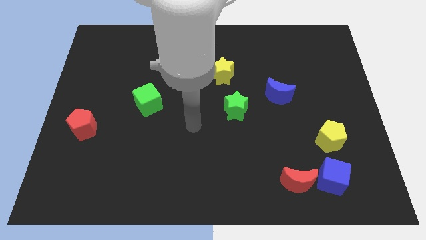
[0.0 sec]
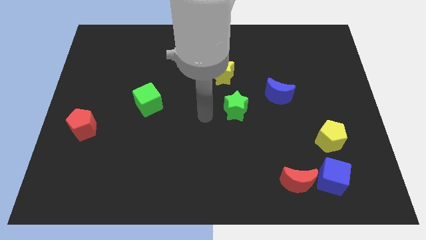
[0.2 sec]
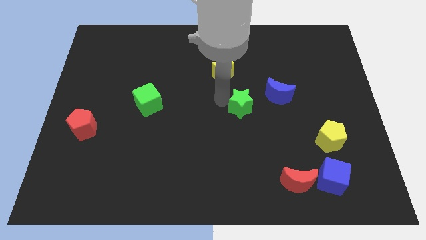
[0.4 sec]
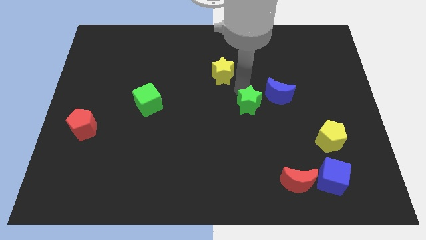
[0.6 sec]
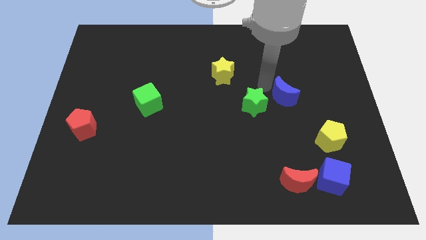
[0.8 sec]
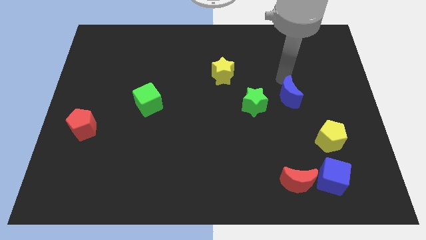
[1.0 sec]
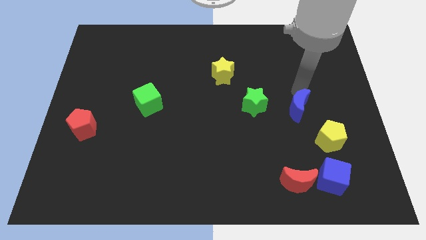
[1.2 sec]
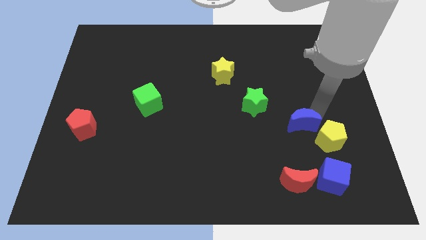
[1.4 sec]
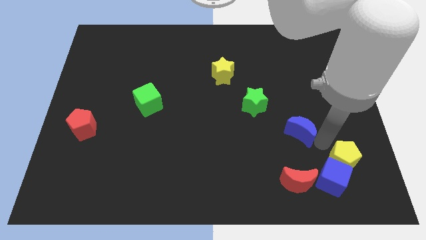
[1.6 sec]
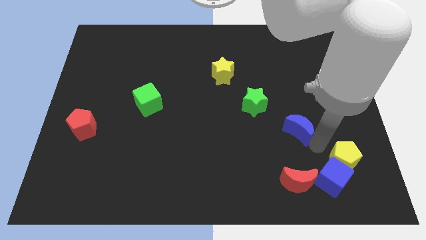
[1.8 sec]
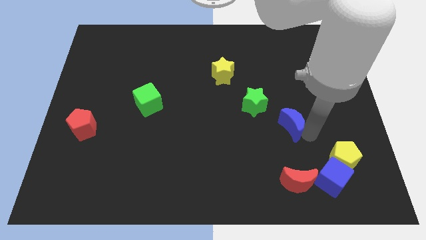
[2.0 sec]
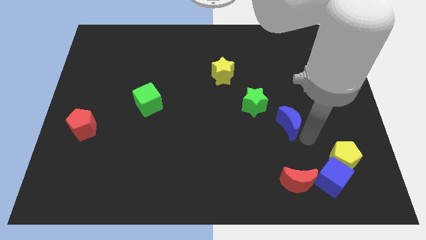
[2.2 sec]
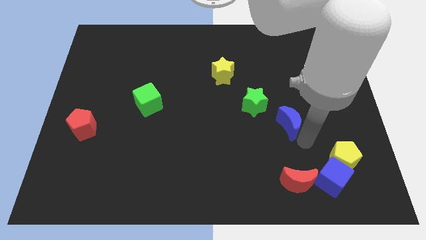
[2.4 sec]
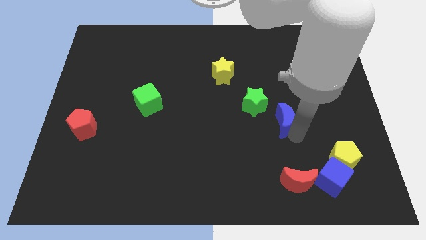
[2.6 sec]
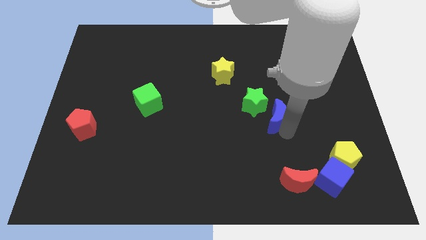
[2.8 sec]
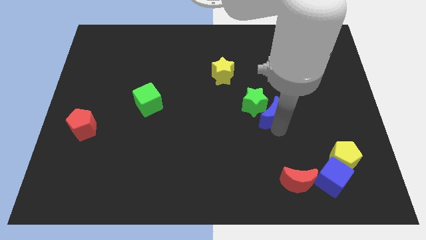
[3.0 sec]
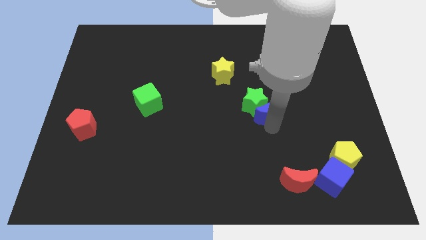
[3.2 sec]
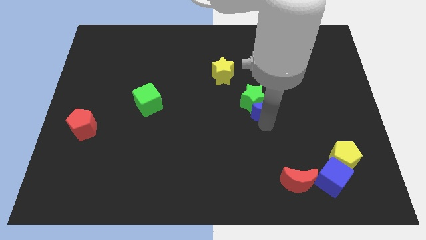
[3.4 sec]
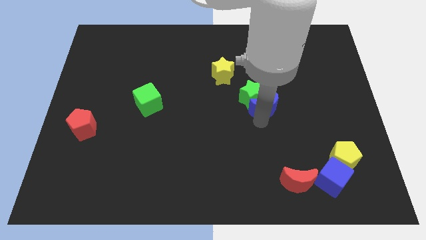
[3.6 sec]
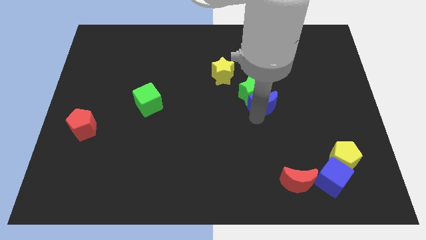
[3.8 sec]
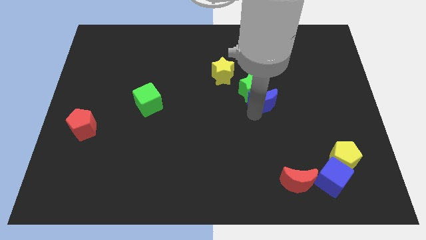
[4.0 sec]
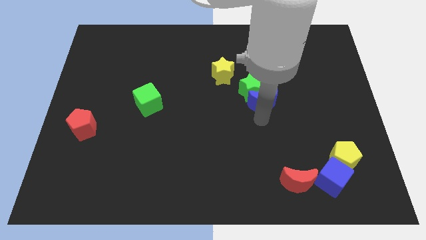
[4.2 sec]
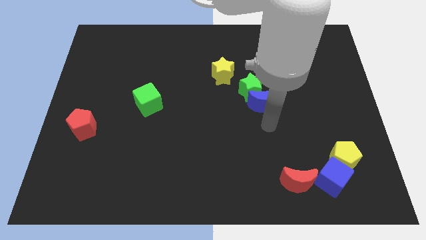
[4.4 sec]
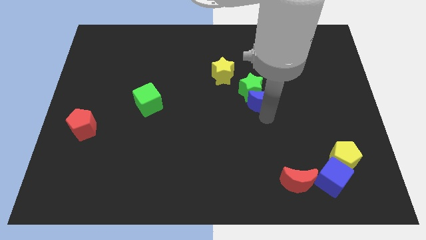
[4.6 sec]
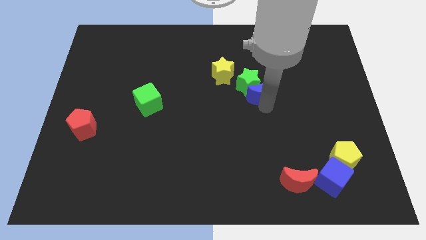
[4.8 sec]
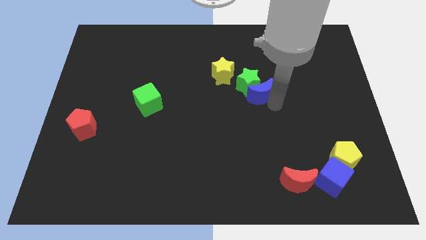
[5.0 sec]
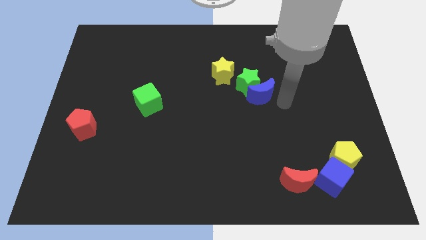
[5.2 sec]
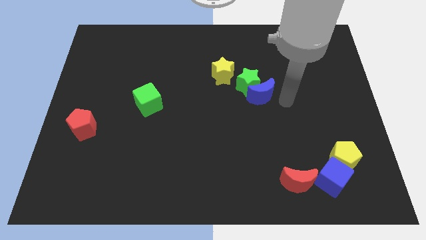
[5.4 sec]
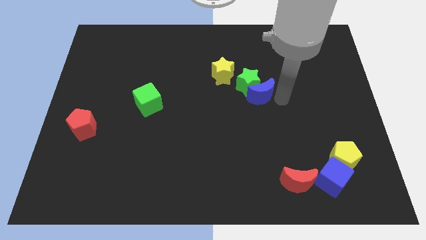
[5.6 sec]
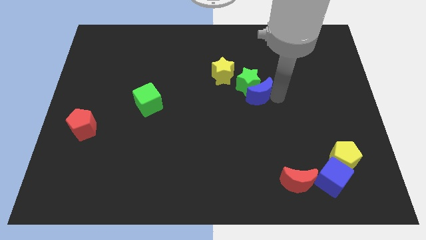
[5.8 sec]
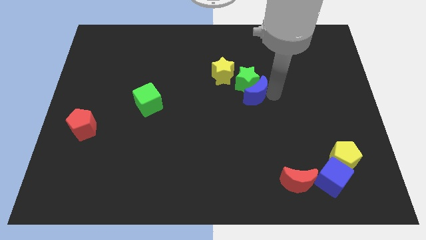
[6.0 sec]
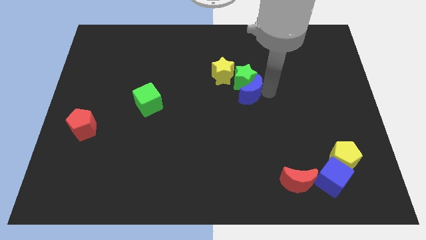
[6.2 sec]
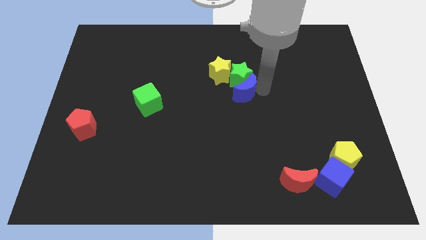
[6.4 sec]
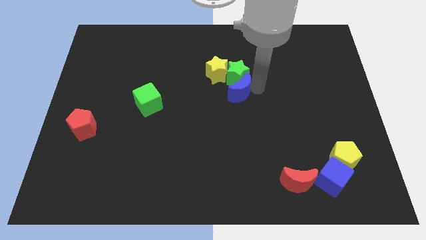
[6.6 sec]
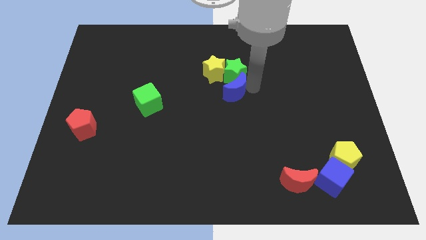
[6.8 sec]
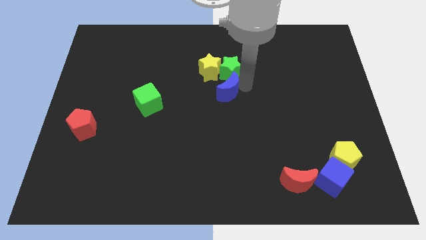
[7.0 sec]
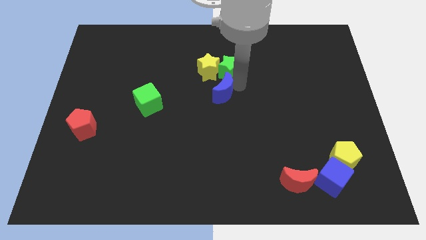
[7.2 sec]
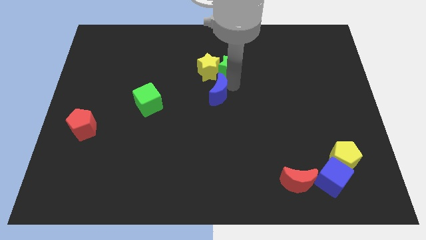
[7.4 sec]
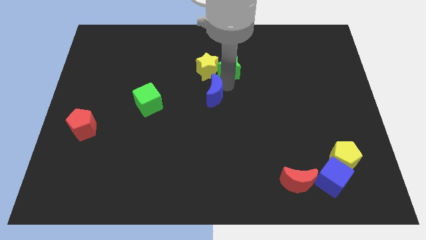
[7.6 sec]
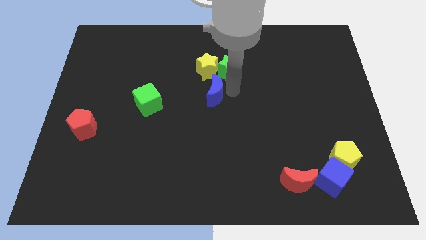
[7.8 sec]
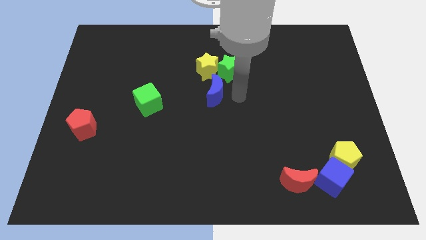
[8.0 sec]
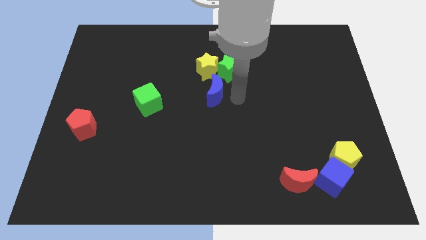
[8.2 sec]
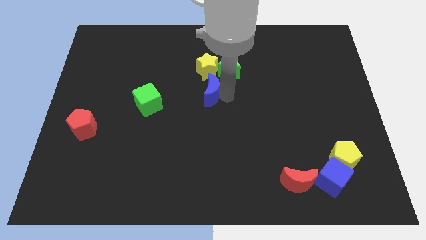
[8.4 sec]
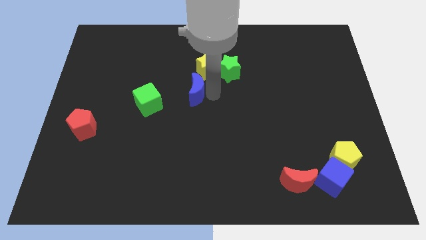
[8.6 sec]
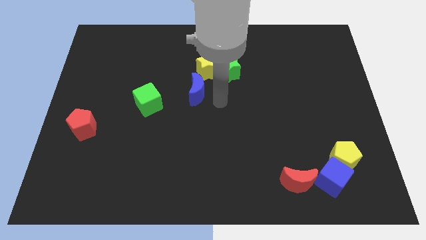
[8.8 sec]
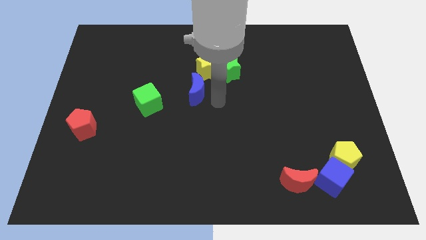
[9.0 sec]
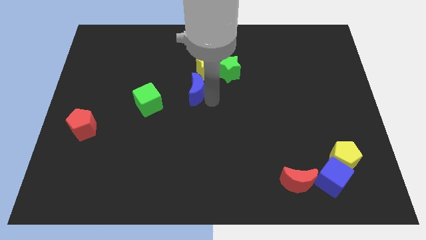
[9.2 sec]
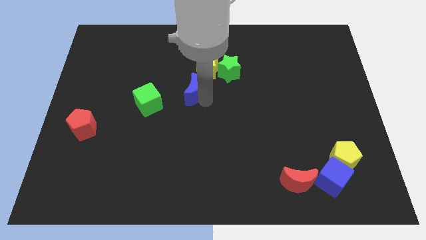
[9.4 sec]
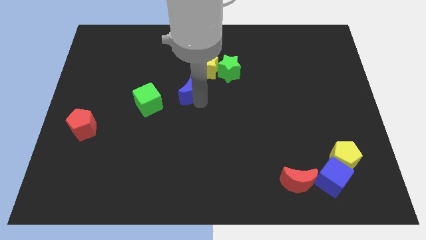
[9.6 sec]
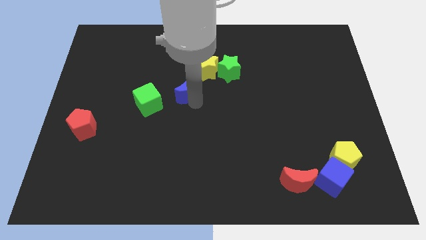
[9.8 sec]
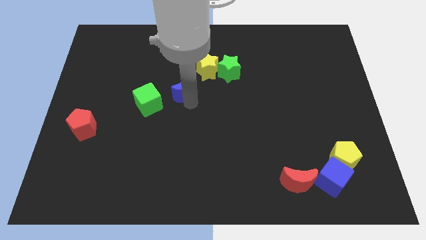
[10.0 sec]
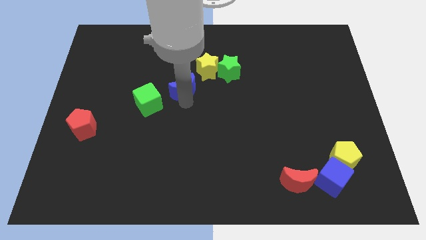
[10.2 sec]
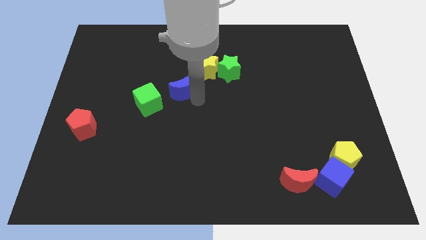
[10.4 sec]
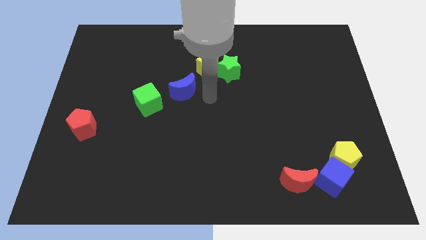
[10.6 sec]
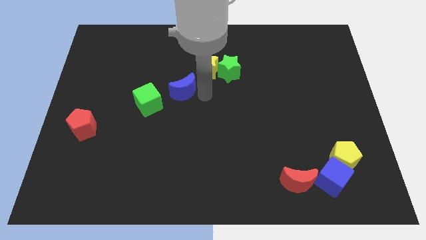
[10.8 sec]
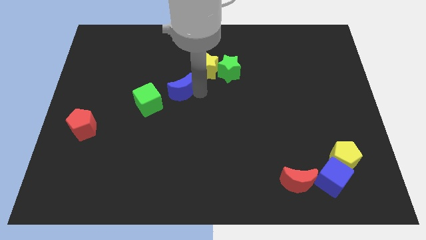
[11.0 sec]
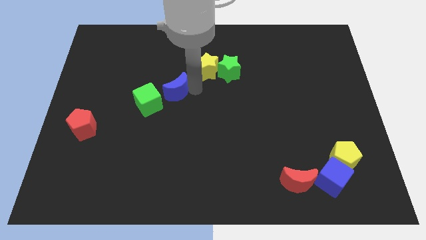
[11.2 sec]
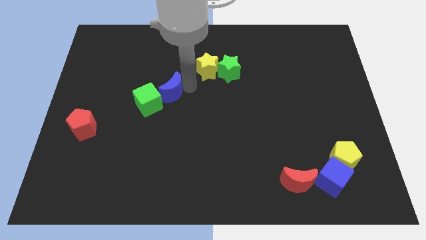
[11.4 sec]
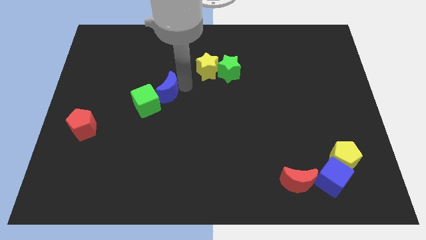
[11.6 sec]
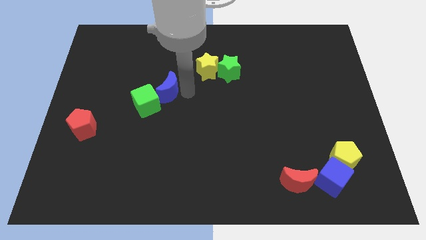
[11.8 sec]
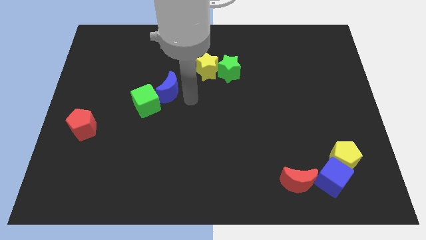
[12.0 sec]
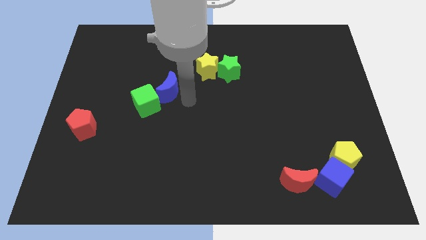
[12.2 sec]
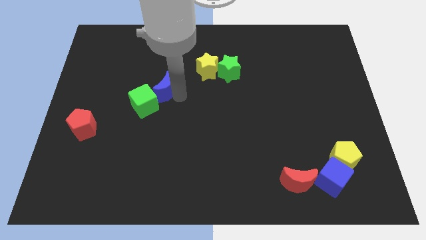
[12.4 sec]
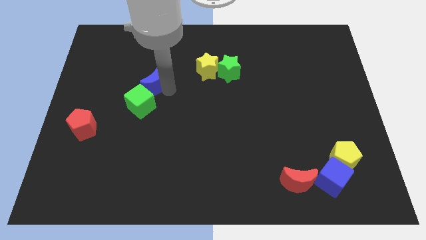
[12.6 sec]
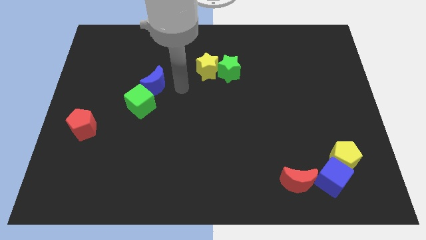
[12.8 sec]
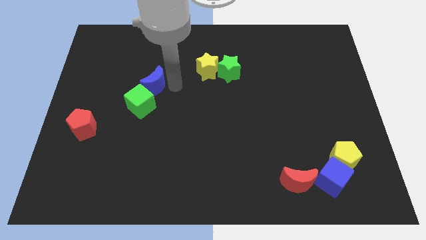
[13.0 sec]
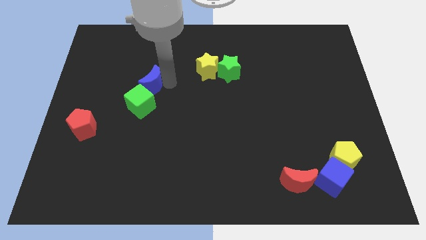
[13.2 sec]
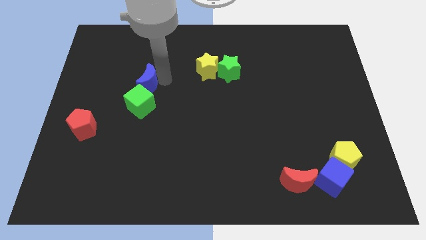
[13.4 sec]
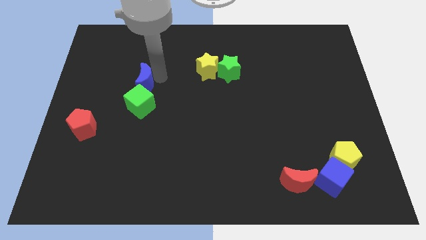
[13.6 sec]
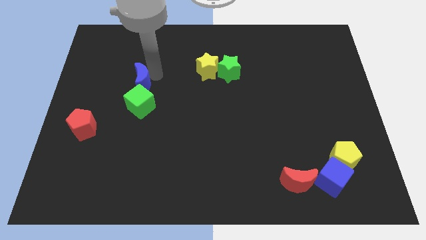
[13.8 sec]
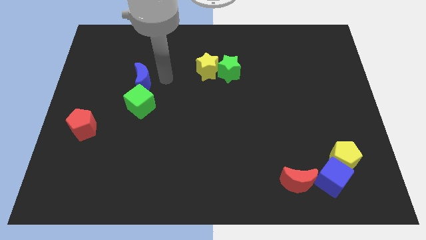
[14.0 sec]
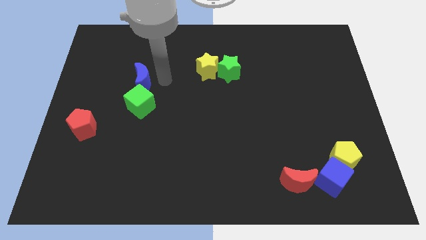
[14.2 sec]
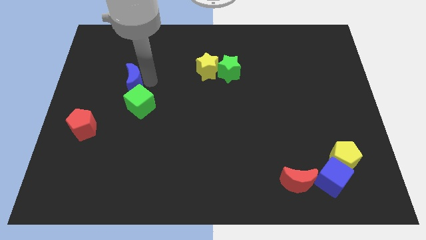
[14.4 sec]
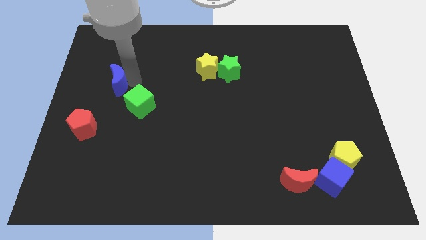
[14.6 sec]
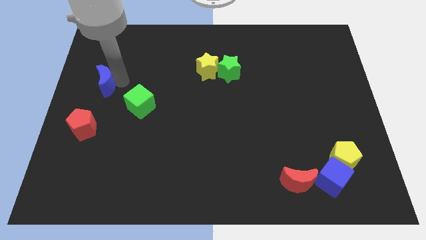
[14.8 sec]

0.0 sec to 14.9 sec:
slide the blue moon to the left side

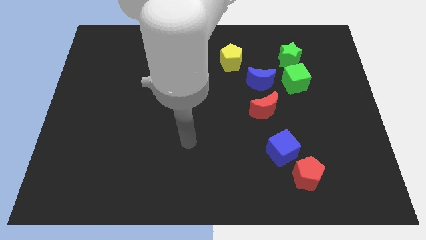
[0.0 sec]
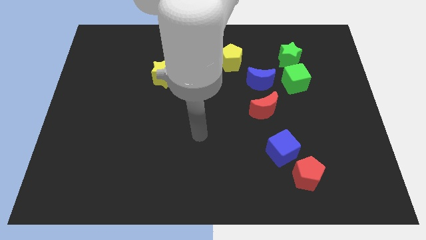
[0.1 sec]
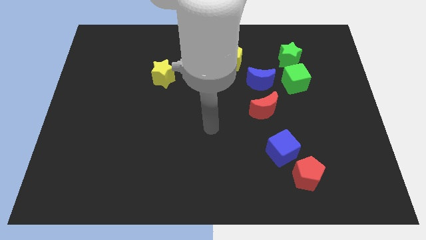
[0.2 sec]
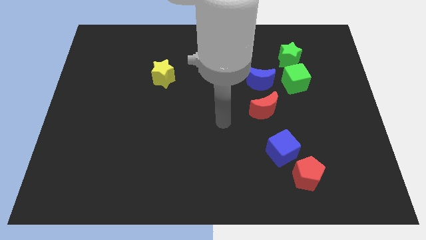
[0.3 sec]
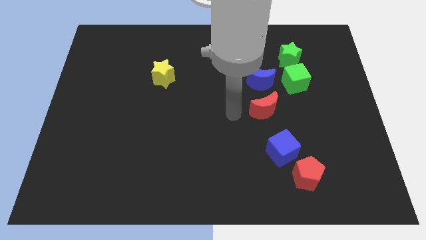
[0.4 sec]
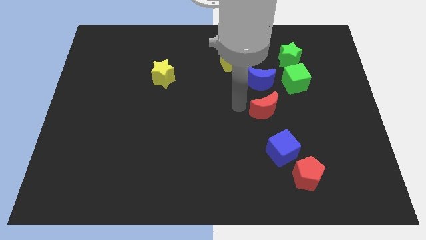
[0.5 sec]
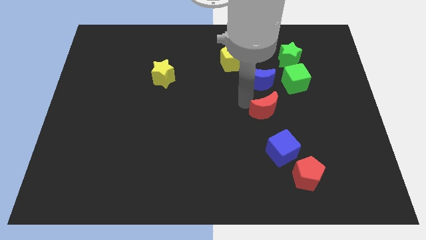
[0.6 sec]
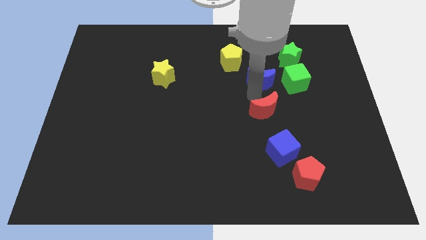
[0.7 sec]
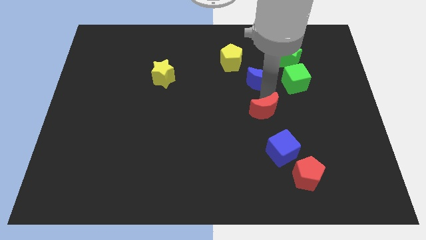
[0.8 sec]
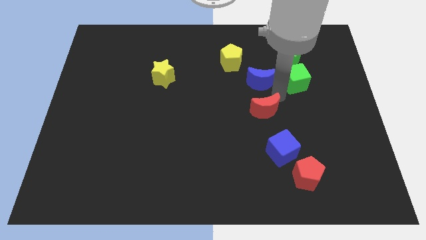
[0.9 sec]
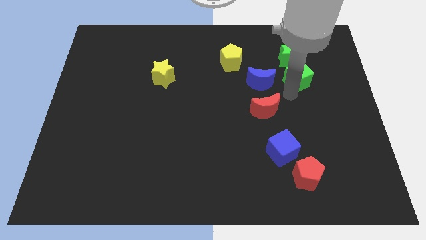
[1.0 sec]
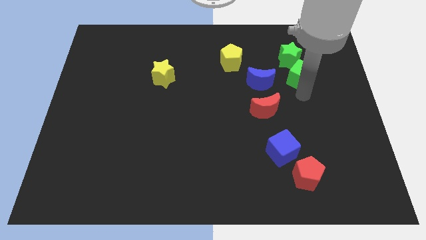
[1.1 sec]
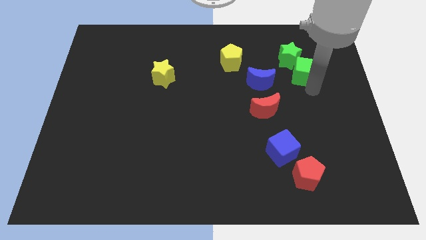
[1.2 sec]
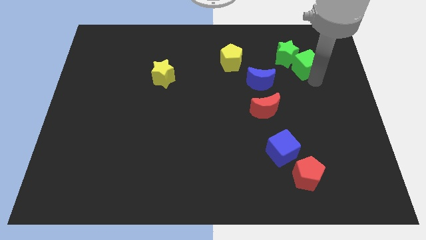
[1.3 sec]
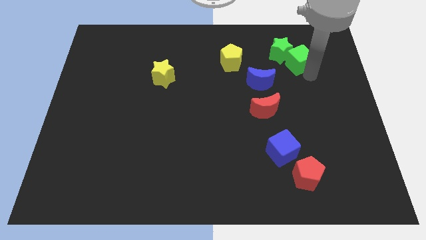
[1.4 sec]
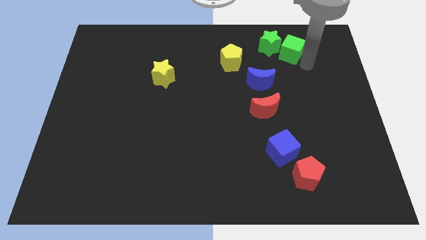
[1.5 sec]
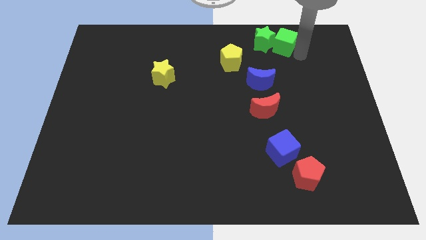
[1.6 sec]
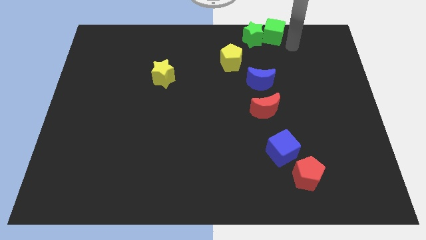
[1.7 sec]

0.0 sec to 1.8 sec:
move the green star to the top
